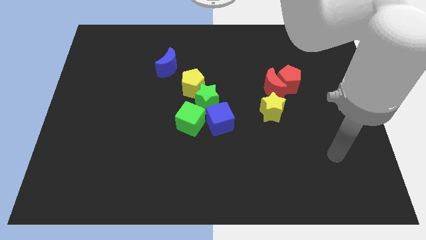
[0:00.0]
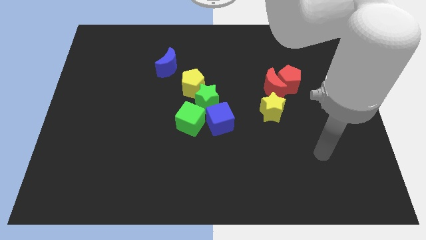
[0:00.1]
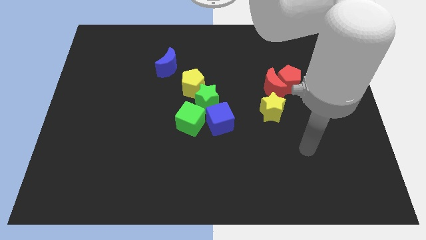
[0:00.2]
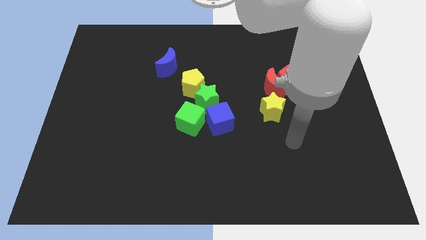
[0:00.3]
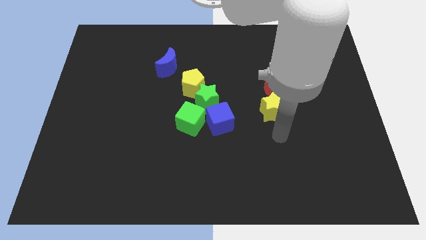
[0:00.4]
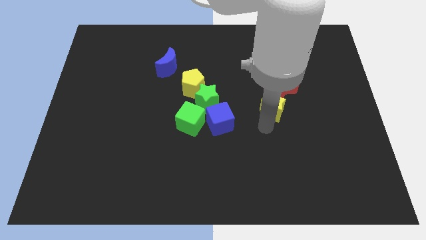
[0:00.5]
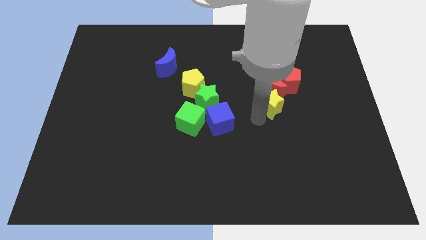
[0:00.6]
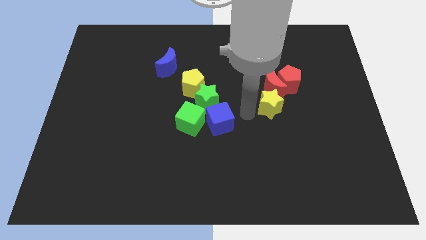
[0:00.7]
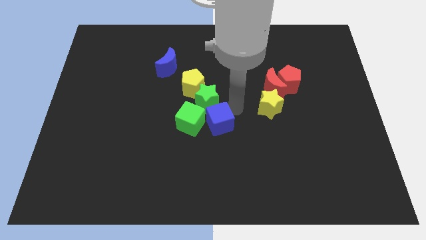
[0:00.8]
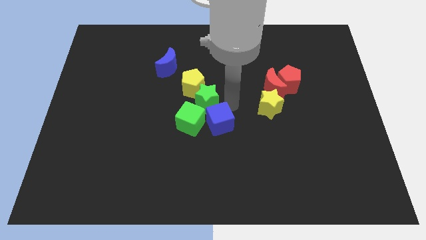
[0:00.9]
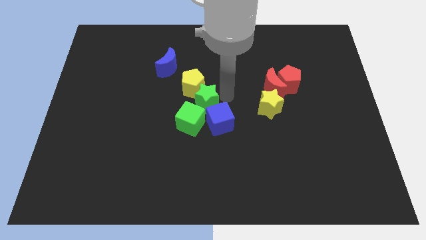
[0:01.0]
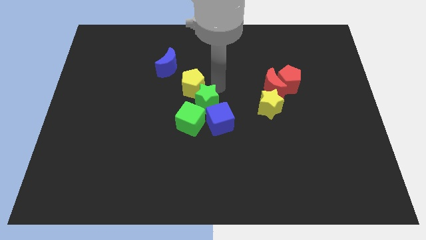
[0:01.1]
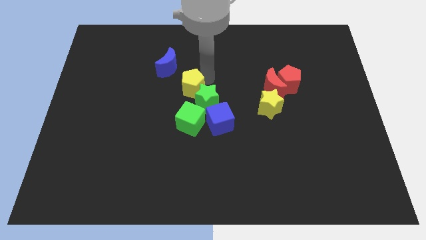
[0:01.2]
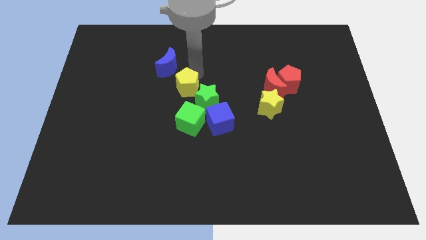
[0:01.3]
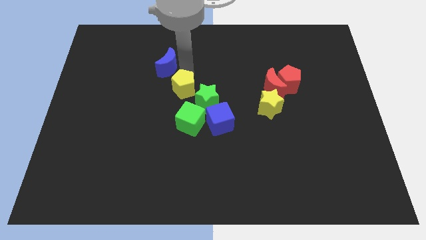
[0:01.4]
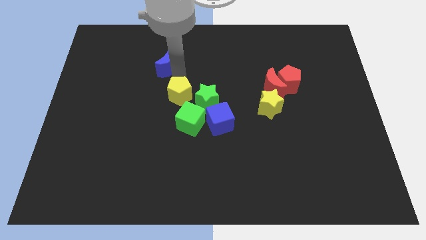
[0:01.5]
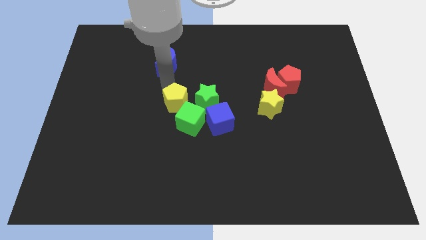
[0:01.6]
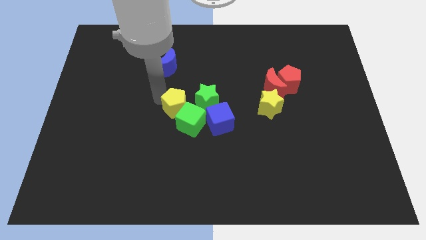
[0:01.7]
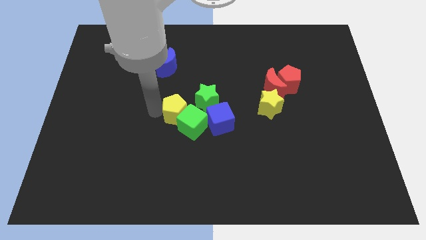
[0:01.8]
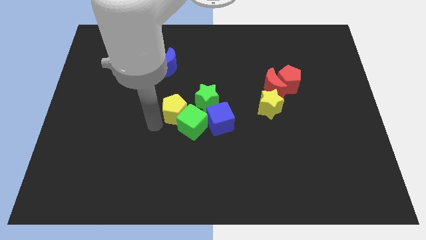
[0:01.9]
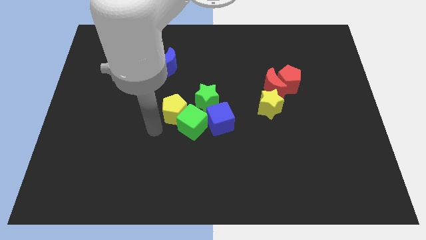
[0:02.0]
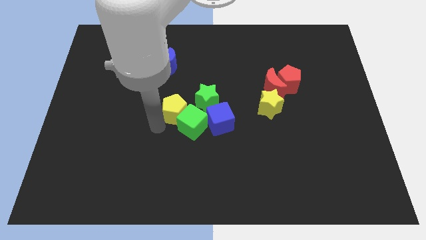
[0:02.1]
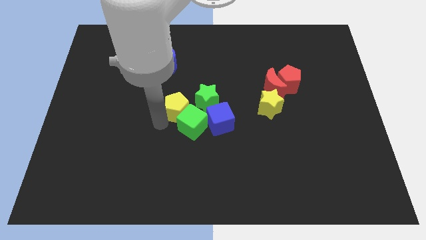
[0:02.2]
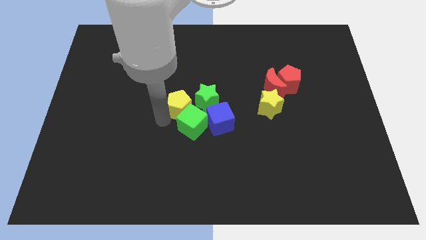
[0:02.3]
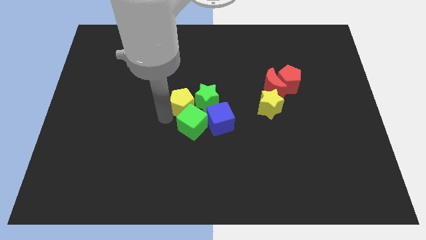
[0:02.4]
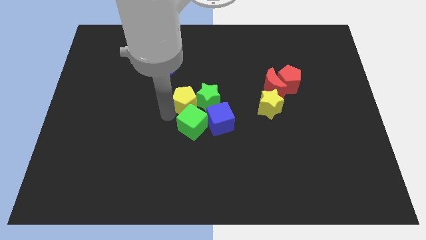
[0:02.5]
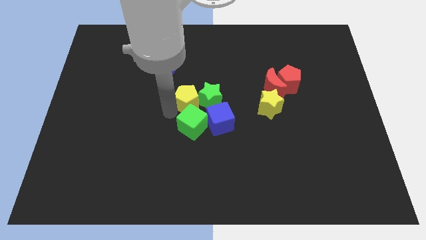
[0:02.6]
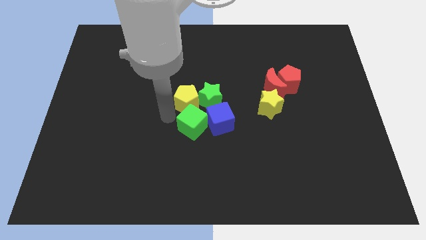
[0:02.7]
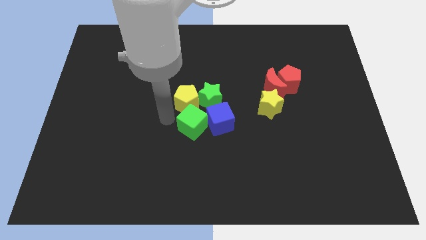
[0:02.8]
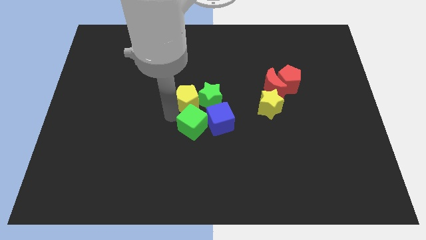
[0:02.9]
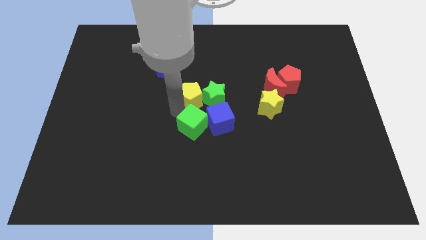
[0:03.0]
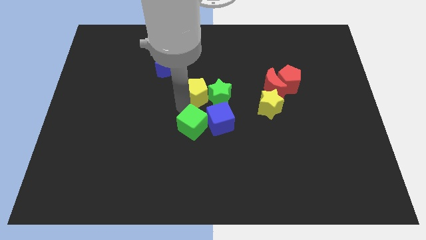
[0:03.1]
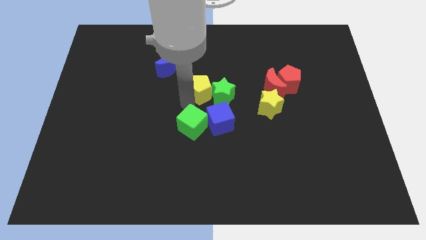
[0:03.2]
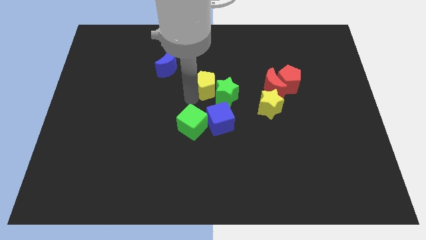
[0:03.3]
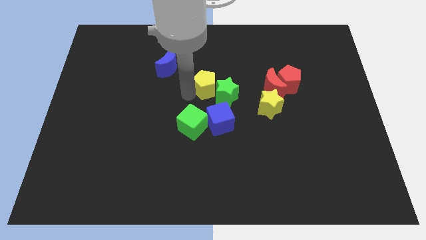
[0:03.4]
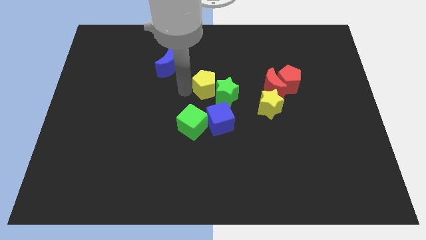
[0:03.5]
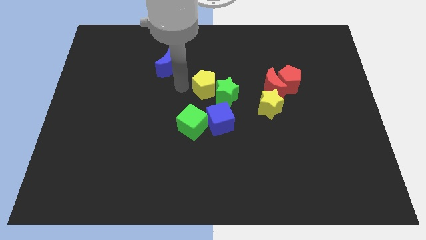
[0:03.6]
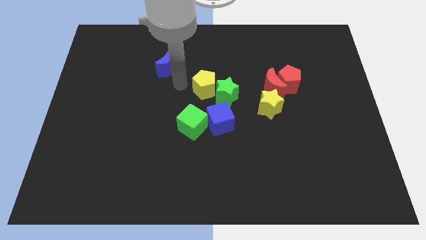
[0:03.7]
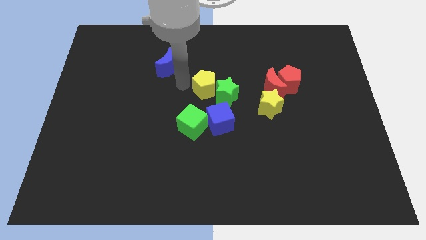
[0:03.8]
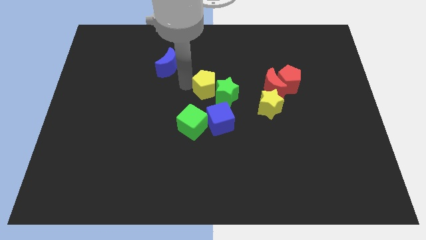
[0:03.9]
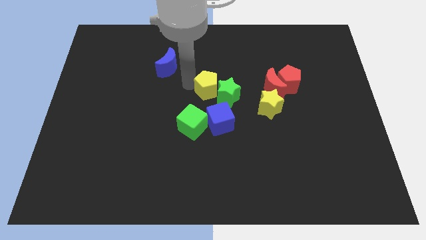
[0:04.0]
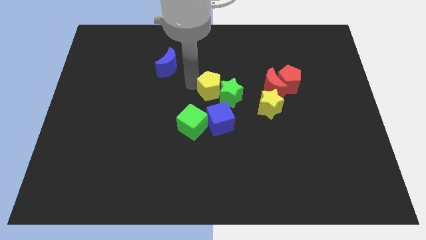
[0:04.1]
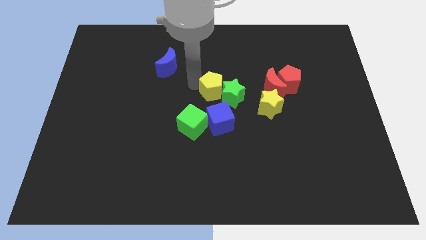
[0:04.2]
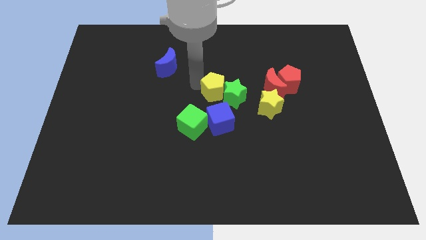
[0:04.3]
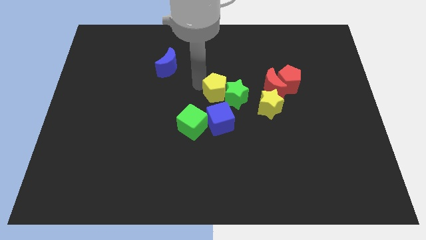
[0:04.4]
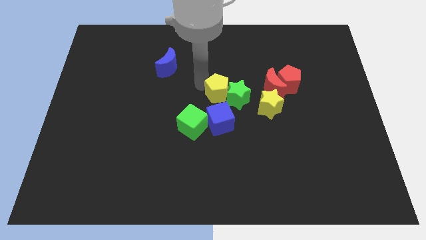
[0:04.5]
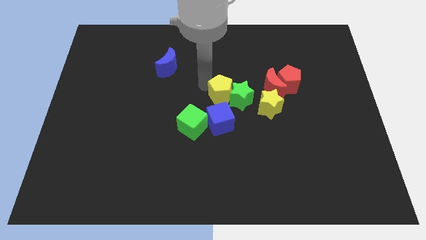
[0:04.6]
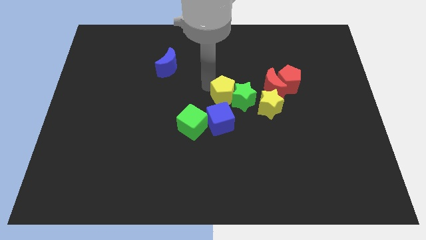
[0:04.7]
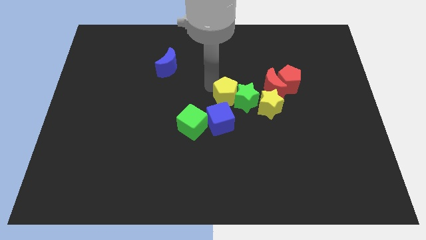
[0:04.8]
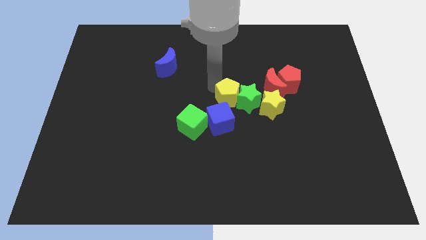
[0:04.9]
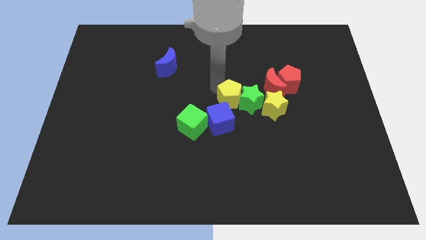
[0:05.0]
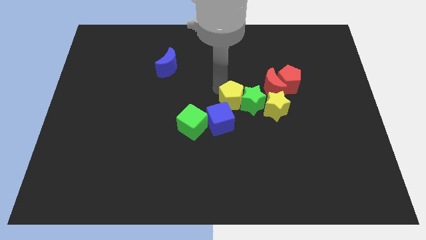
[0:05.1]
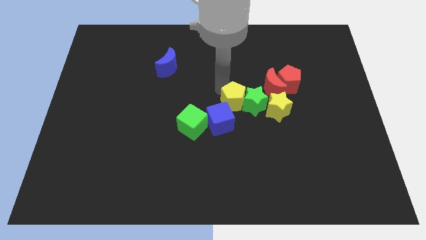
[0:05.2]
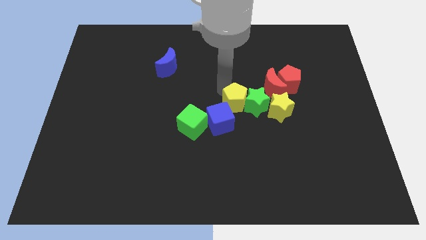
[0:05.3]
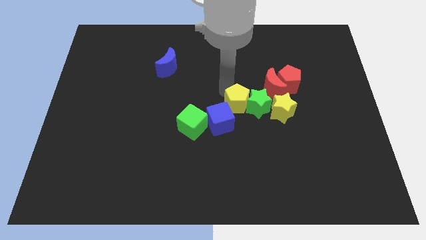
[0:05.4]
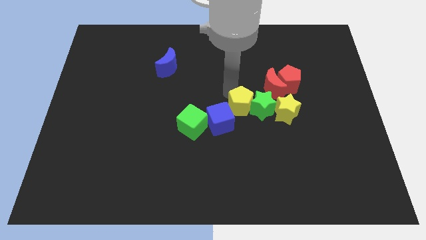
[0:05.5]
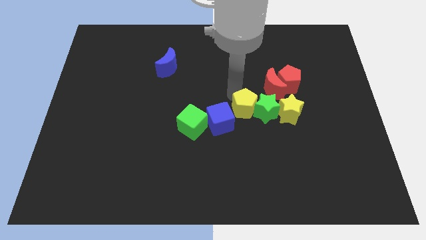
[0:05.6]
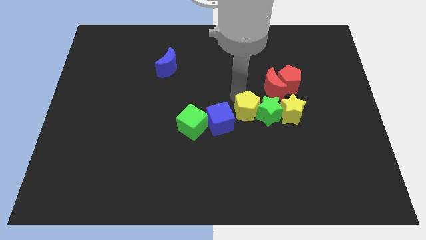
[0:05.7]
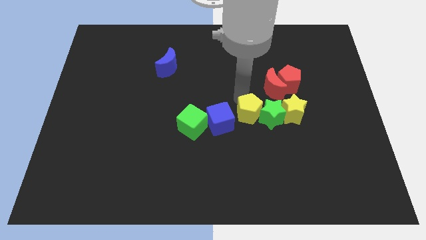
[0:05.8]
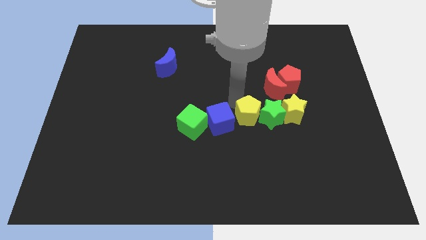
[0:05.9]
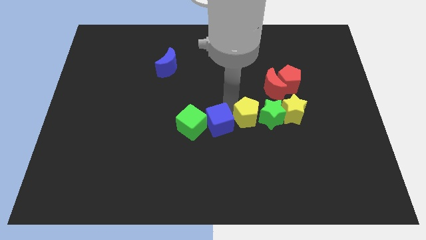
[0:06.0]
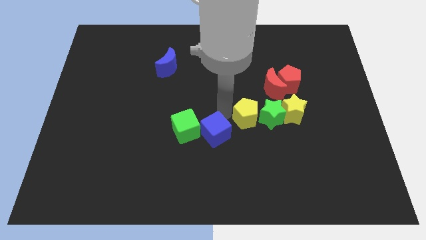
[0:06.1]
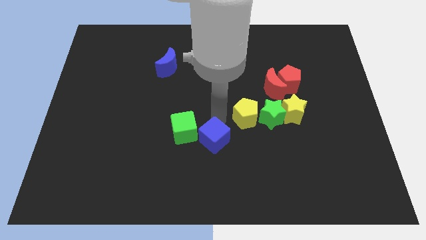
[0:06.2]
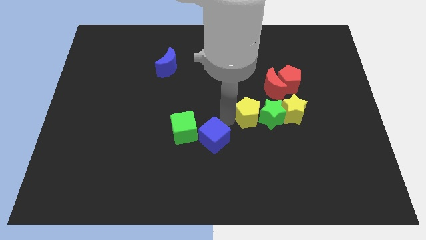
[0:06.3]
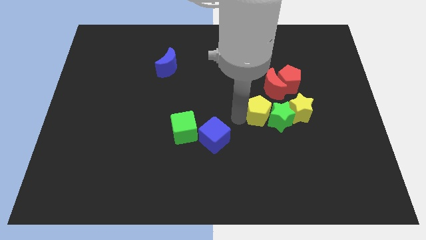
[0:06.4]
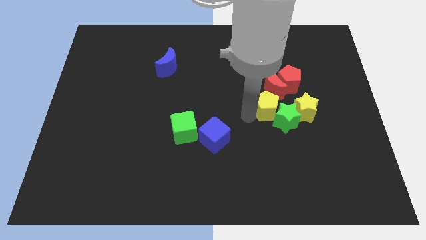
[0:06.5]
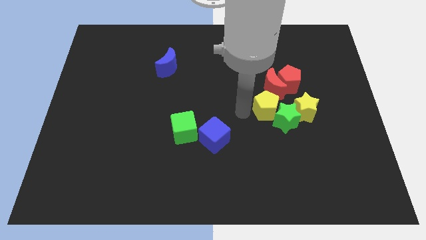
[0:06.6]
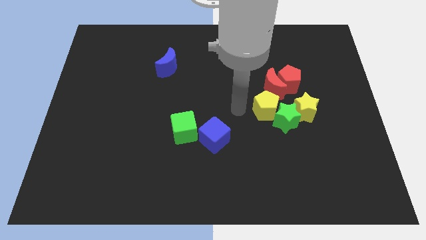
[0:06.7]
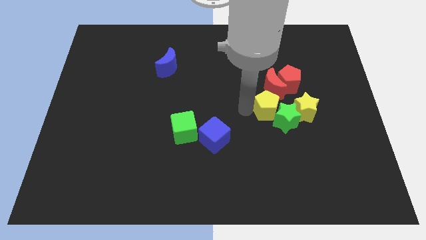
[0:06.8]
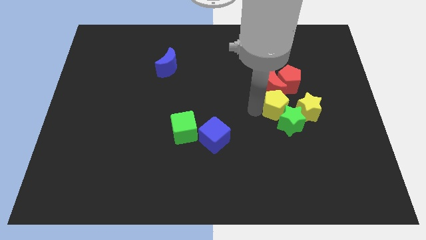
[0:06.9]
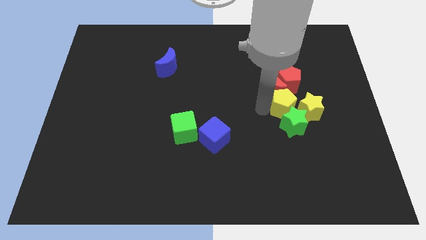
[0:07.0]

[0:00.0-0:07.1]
push the yellow pentagon next to the yellow star
